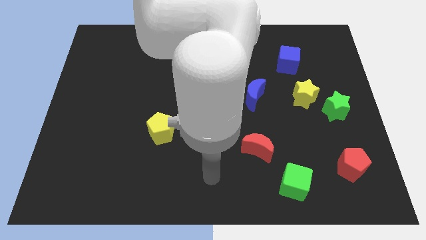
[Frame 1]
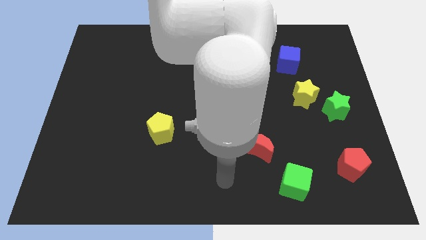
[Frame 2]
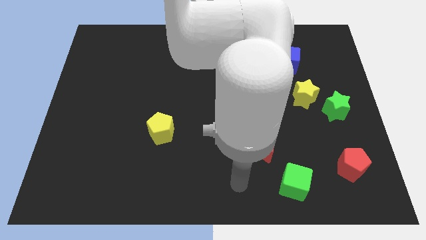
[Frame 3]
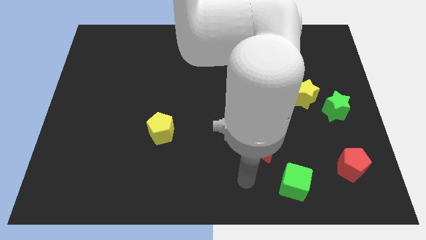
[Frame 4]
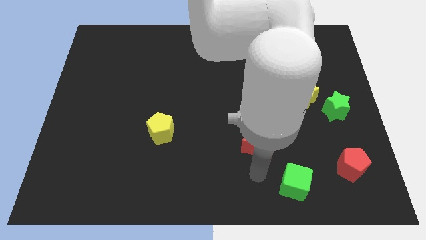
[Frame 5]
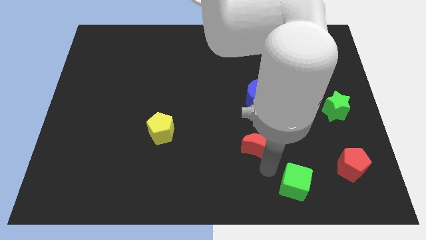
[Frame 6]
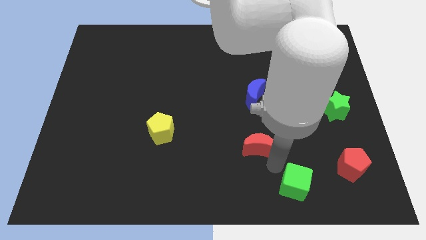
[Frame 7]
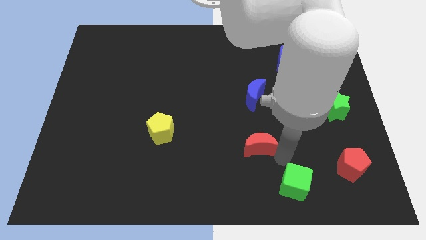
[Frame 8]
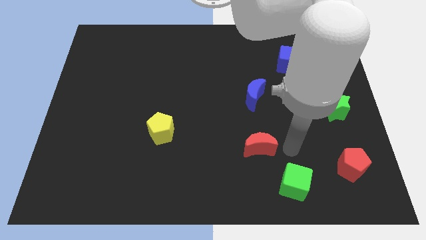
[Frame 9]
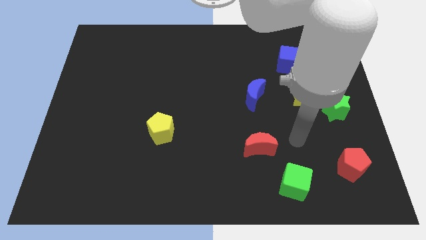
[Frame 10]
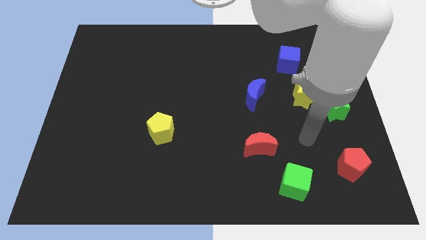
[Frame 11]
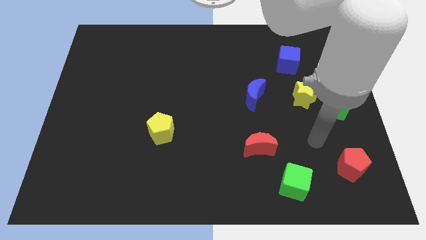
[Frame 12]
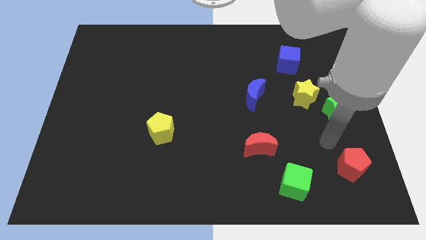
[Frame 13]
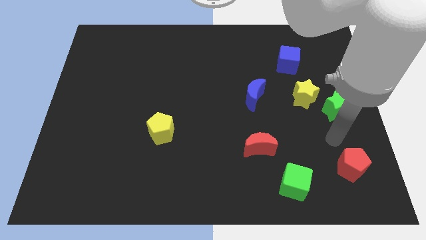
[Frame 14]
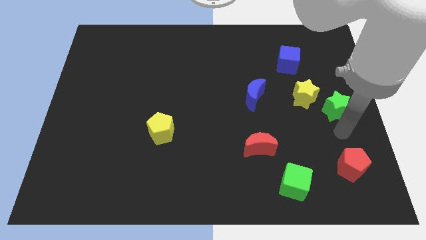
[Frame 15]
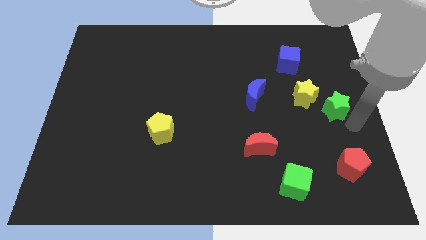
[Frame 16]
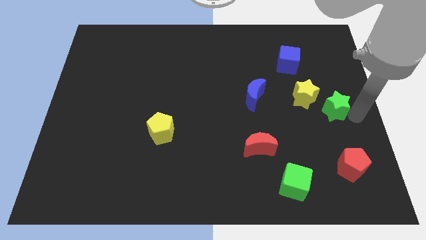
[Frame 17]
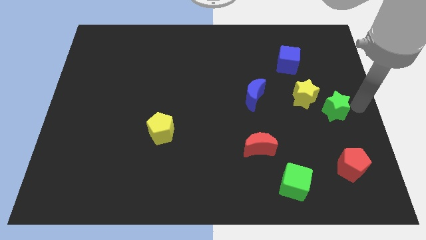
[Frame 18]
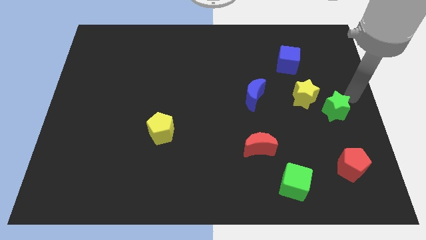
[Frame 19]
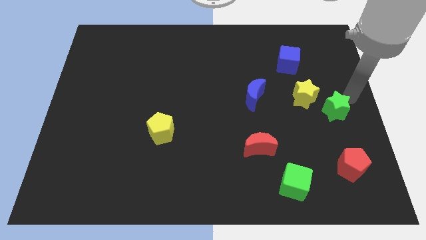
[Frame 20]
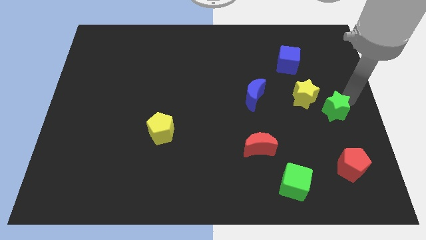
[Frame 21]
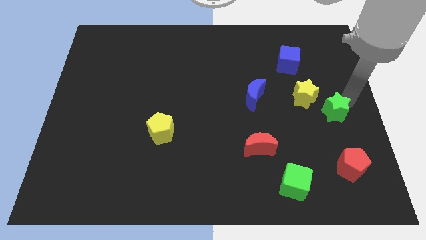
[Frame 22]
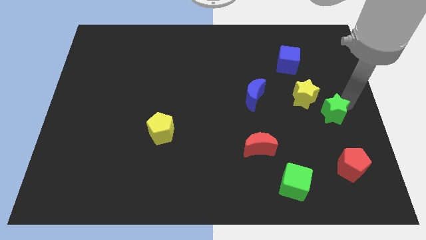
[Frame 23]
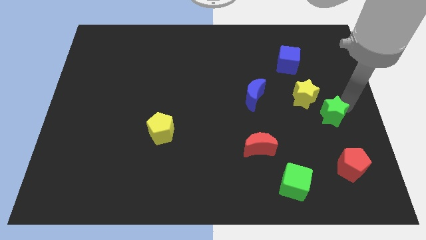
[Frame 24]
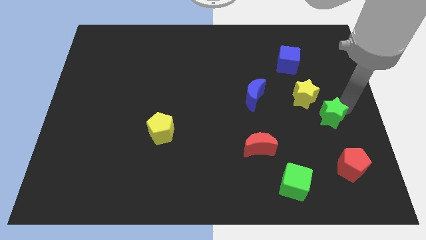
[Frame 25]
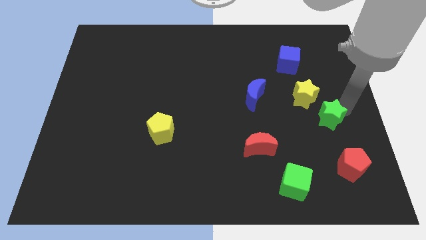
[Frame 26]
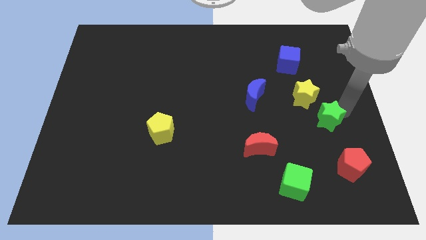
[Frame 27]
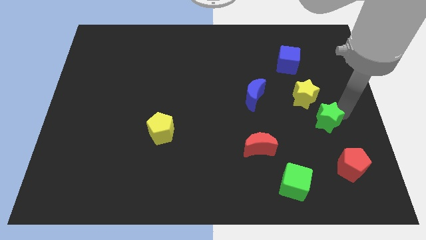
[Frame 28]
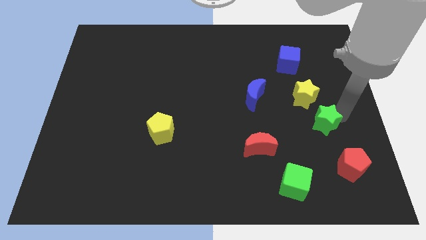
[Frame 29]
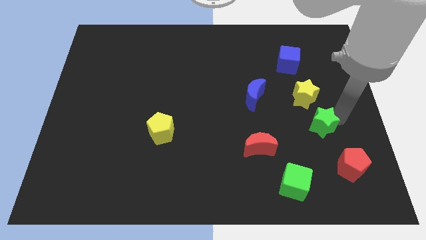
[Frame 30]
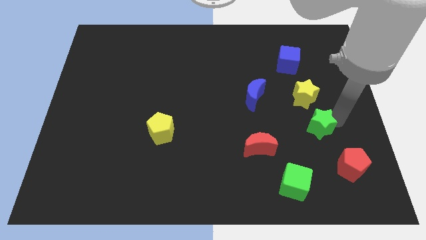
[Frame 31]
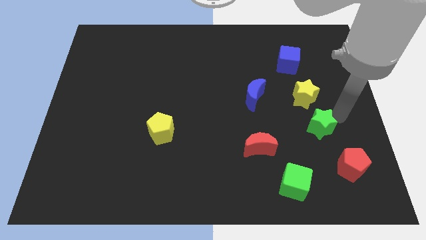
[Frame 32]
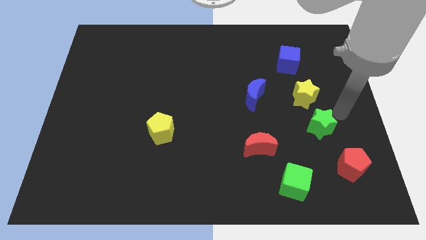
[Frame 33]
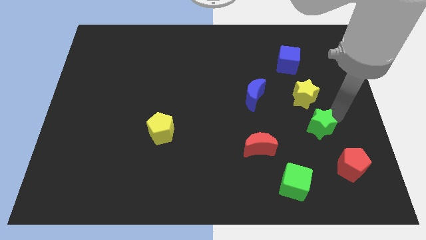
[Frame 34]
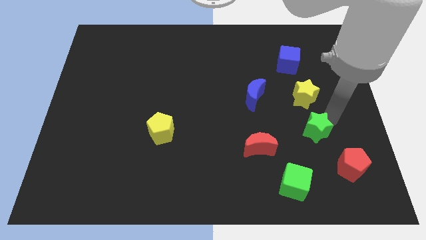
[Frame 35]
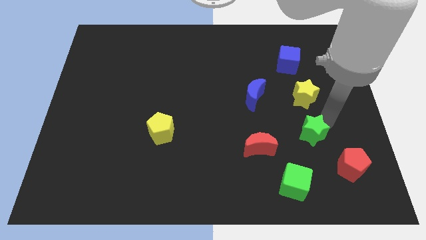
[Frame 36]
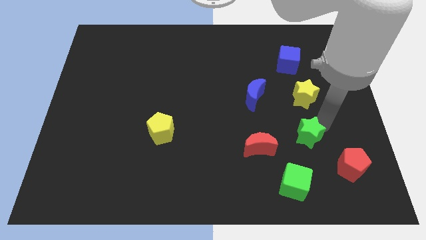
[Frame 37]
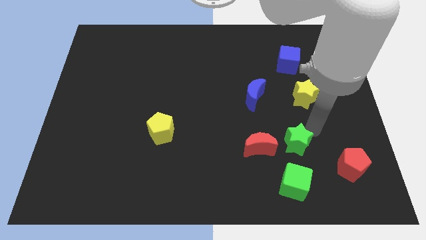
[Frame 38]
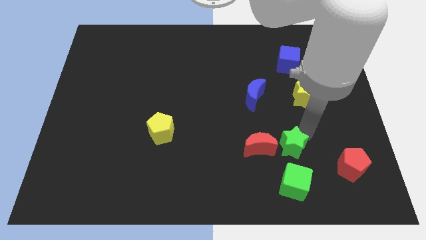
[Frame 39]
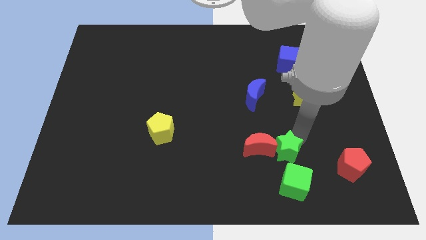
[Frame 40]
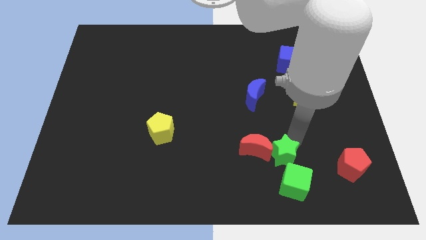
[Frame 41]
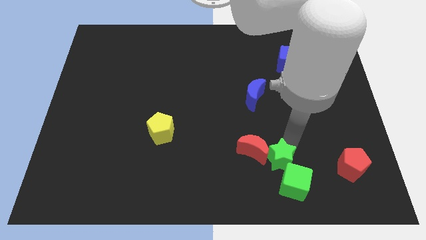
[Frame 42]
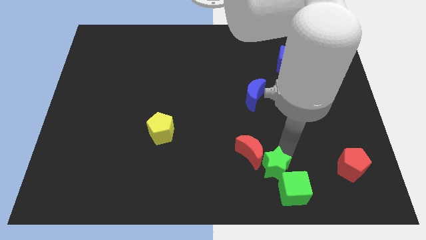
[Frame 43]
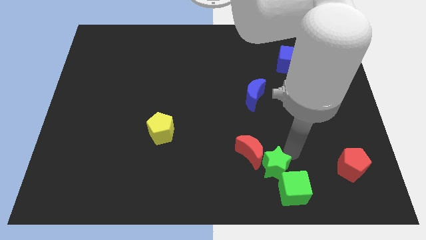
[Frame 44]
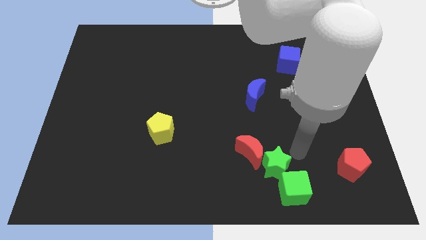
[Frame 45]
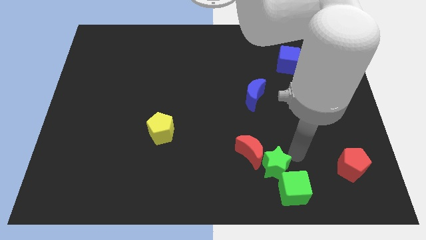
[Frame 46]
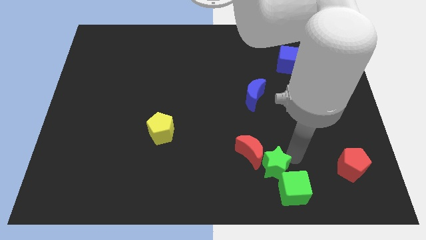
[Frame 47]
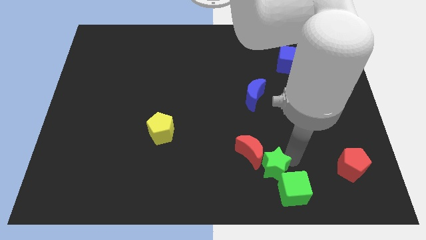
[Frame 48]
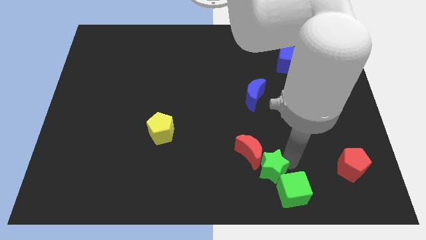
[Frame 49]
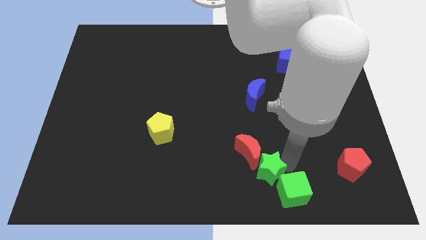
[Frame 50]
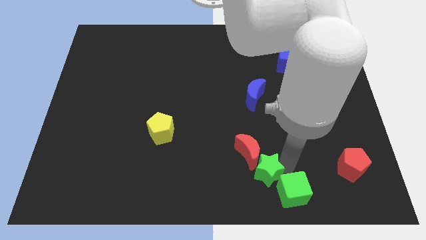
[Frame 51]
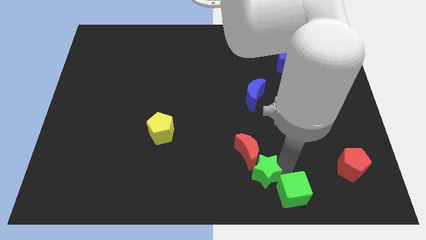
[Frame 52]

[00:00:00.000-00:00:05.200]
slide the green star to the bottom side

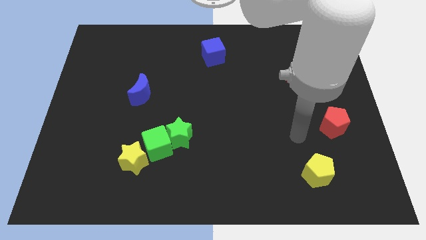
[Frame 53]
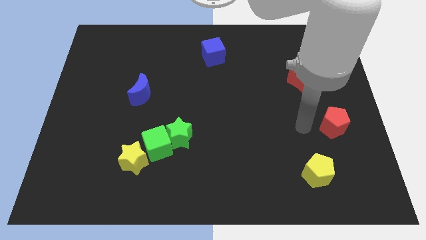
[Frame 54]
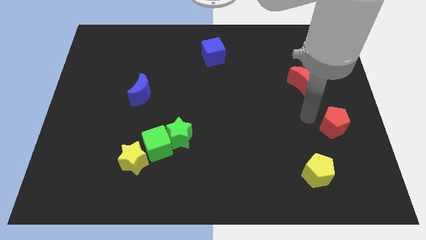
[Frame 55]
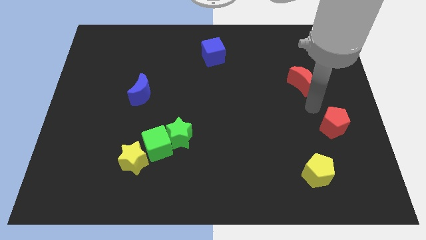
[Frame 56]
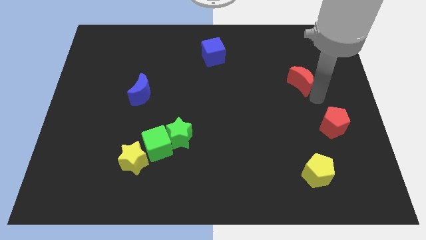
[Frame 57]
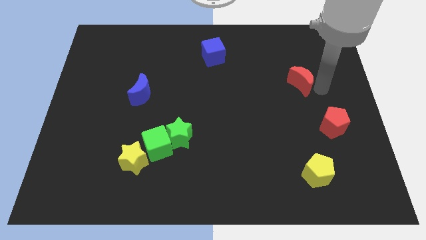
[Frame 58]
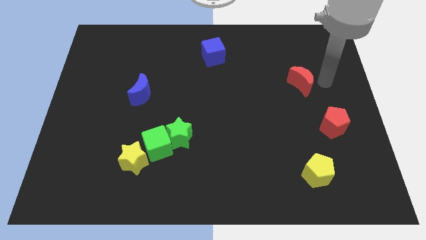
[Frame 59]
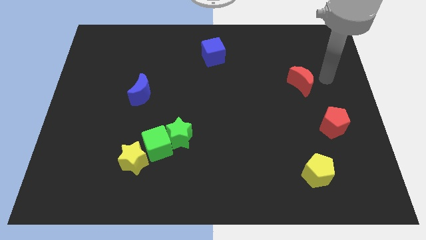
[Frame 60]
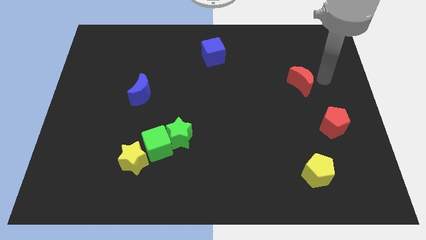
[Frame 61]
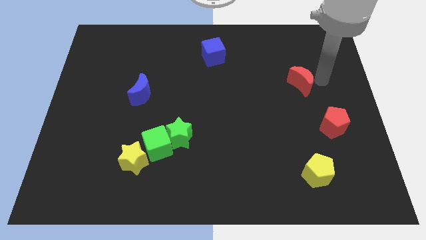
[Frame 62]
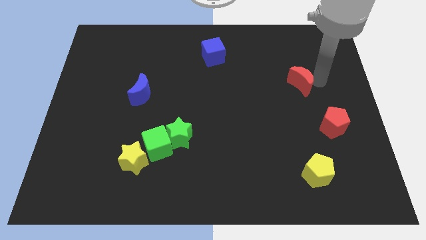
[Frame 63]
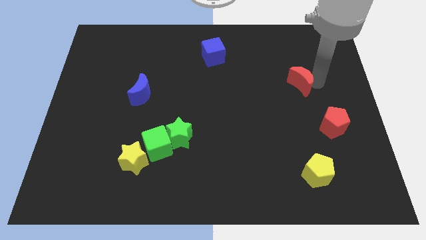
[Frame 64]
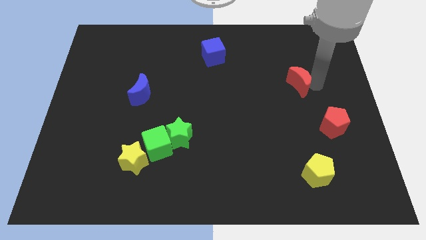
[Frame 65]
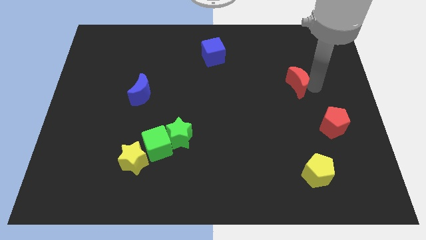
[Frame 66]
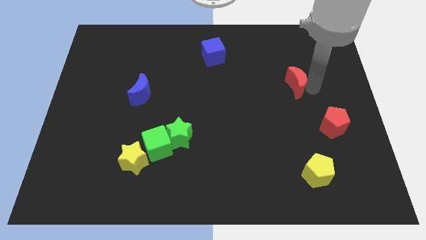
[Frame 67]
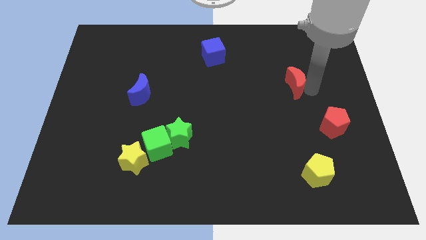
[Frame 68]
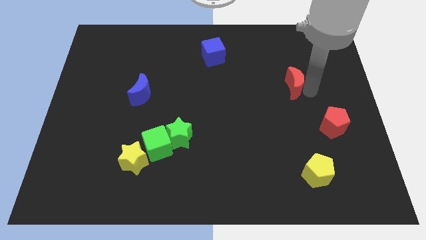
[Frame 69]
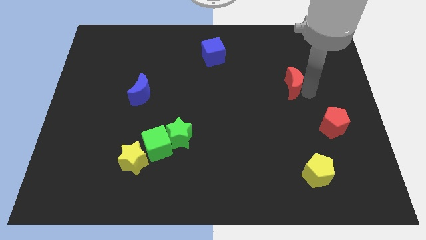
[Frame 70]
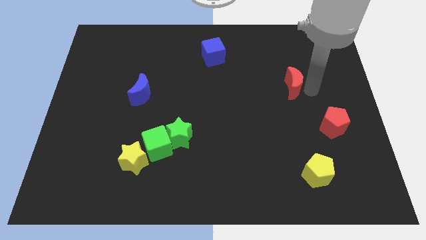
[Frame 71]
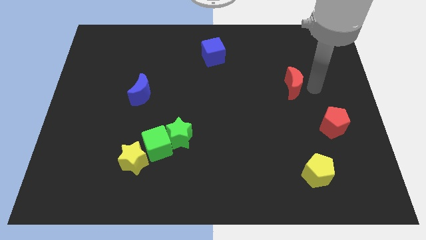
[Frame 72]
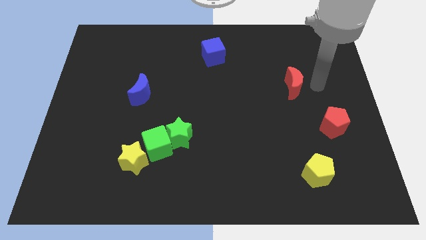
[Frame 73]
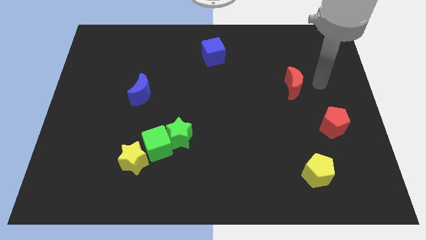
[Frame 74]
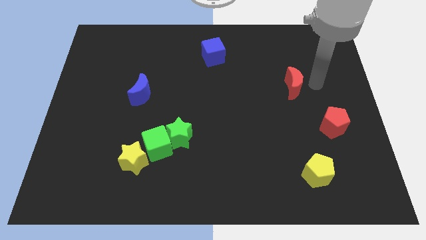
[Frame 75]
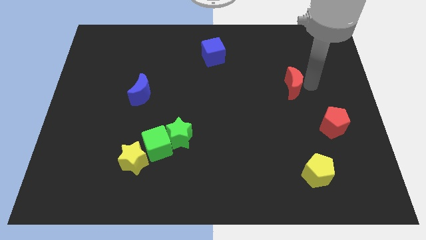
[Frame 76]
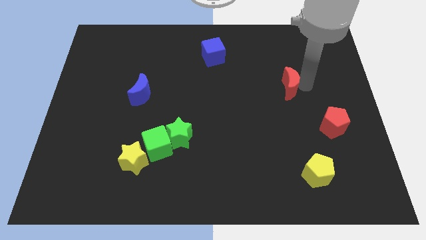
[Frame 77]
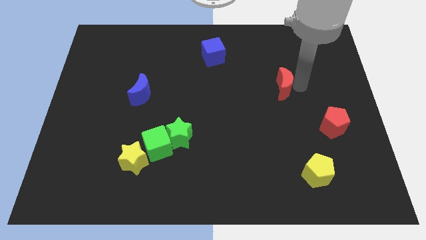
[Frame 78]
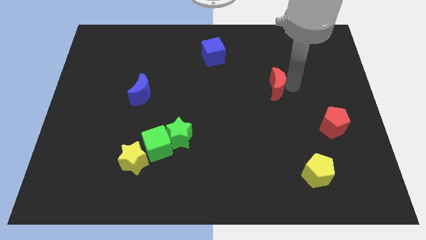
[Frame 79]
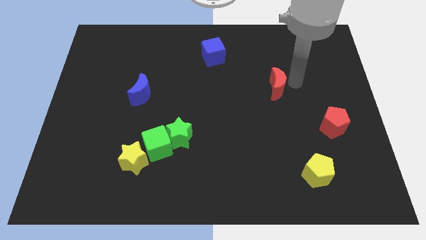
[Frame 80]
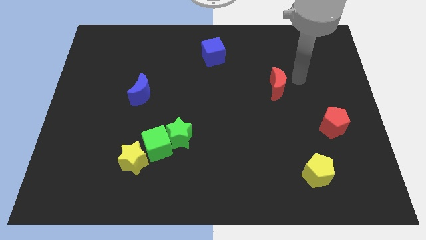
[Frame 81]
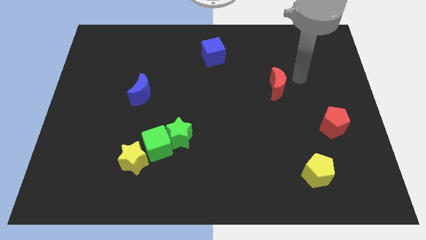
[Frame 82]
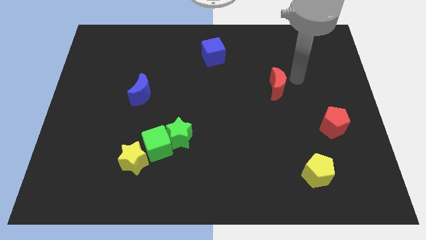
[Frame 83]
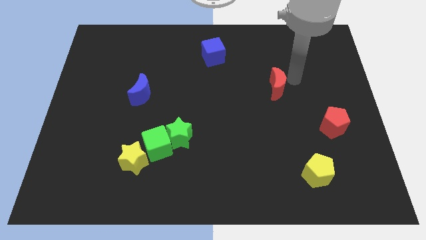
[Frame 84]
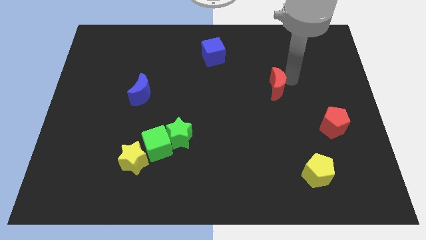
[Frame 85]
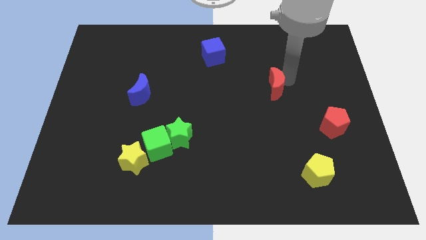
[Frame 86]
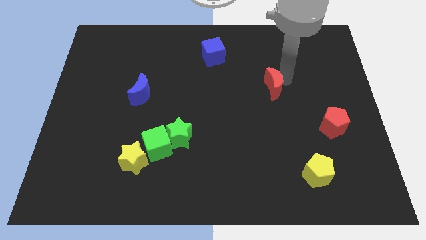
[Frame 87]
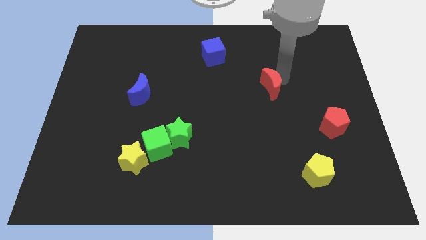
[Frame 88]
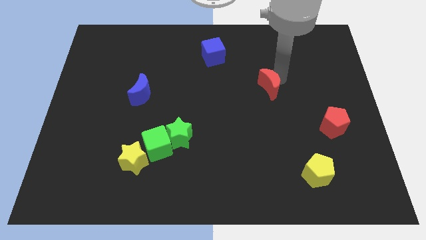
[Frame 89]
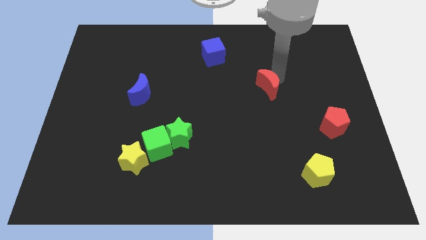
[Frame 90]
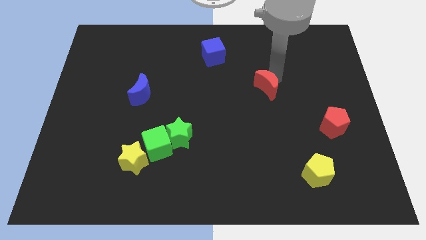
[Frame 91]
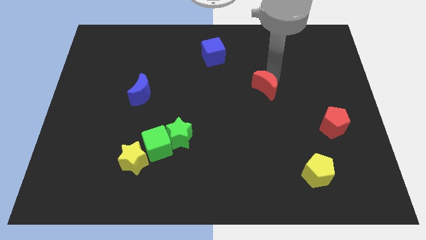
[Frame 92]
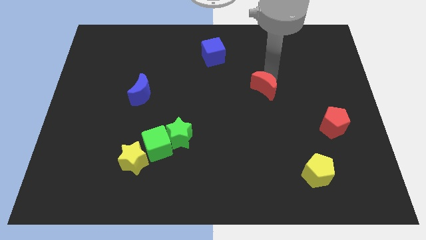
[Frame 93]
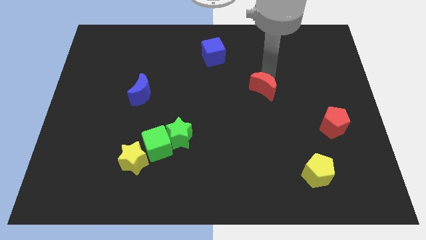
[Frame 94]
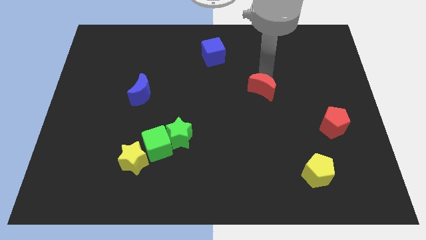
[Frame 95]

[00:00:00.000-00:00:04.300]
slide the red moon to the center
